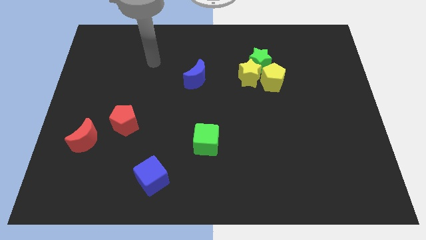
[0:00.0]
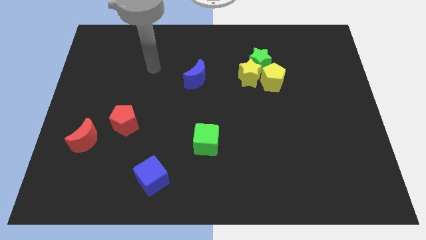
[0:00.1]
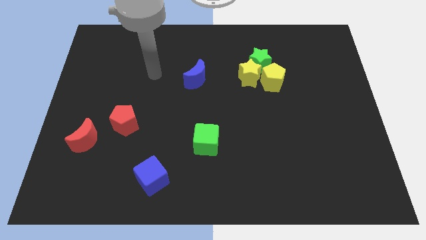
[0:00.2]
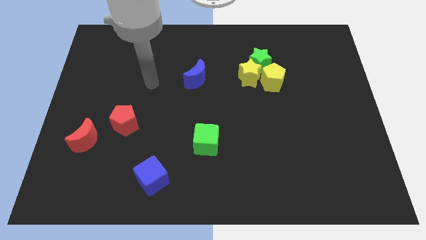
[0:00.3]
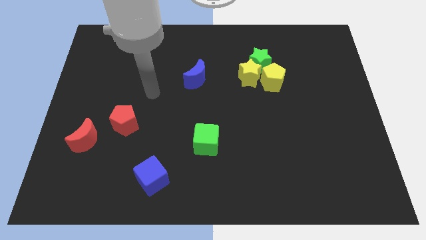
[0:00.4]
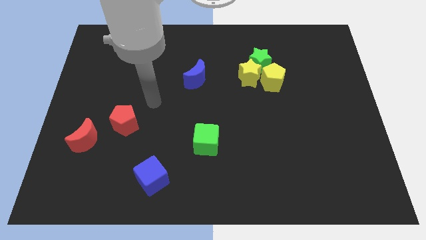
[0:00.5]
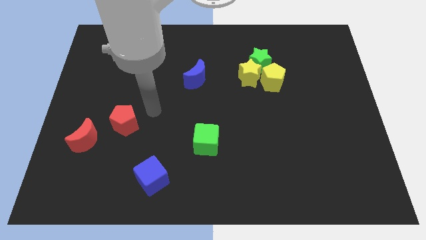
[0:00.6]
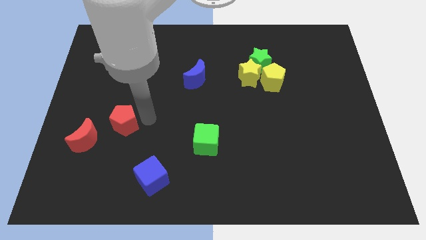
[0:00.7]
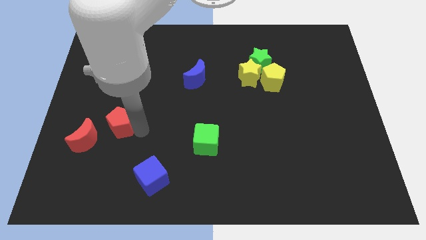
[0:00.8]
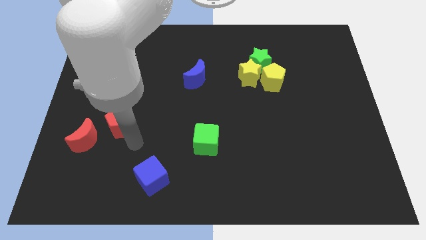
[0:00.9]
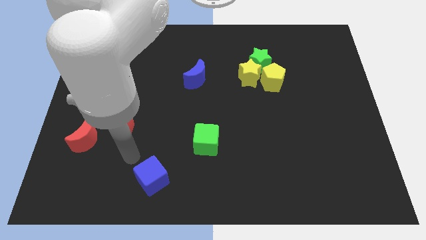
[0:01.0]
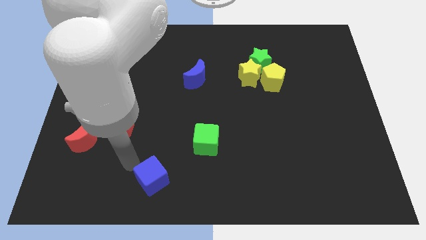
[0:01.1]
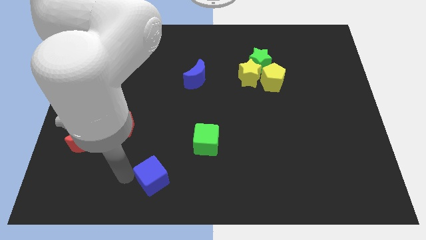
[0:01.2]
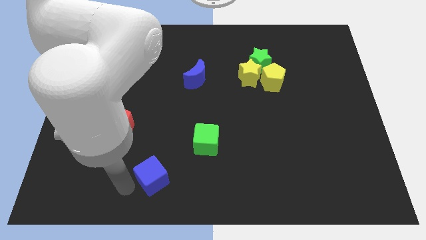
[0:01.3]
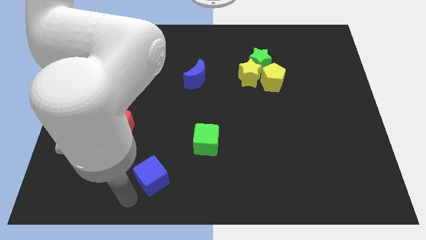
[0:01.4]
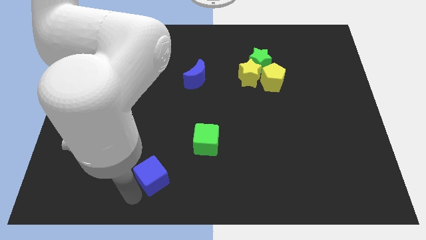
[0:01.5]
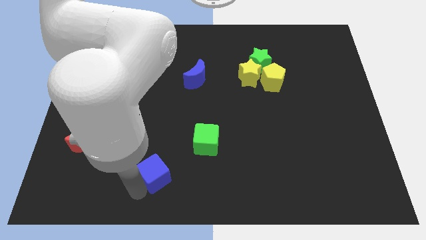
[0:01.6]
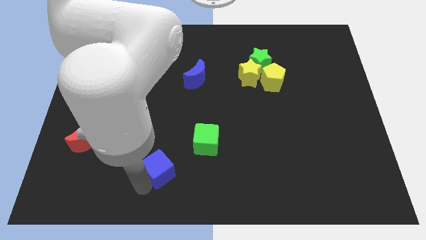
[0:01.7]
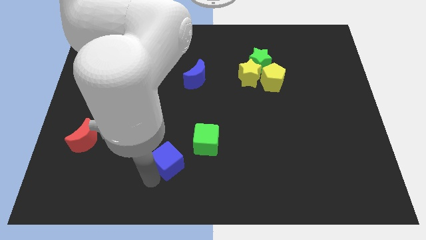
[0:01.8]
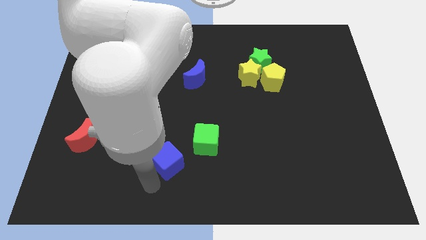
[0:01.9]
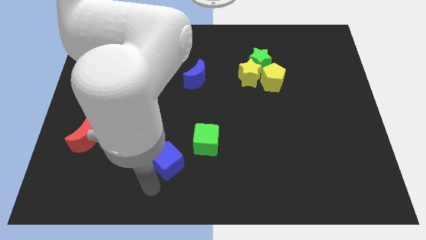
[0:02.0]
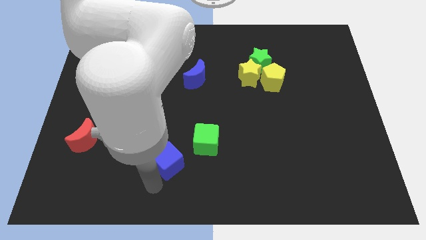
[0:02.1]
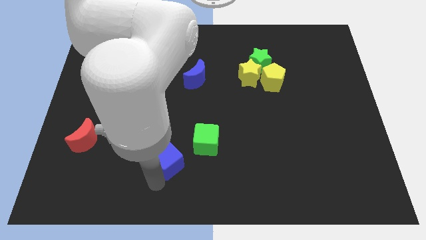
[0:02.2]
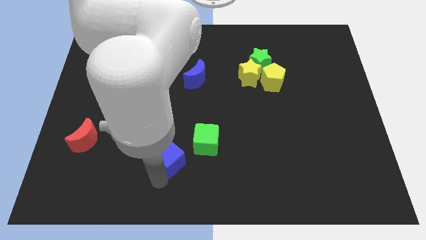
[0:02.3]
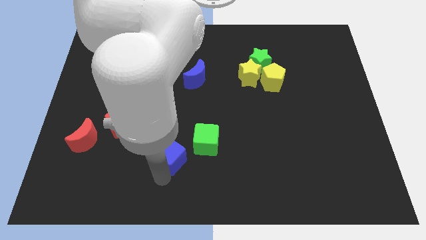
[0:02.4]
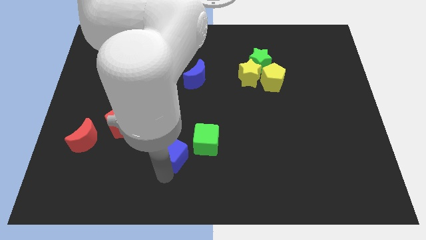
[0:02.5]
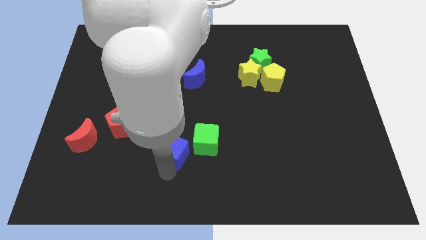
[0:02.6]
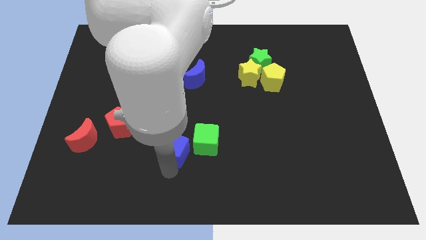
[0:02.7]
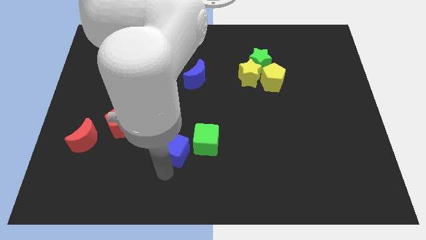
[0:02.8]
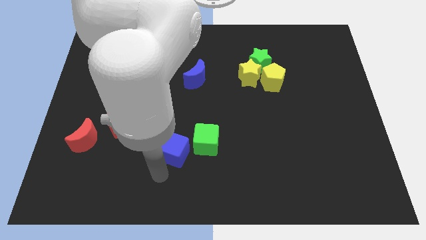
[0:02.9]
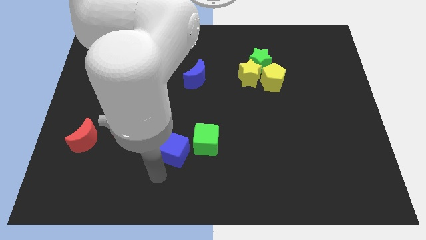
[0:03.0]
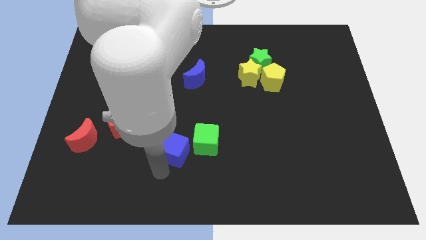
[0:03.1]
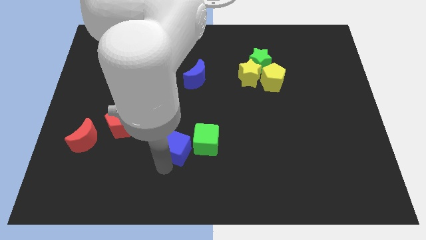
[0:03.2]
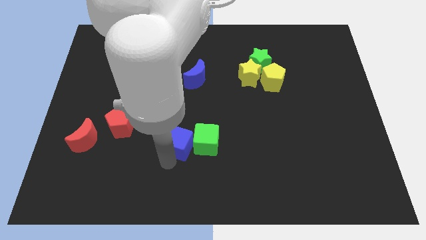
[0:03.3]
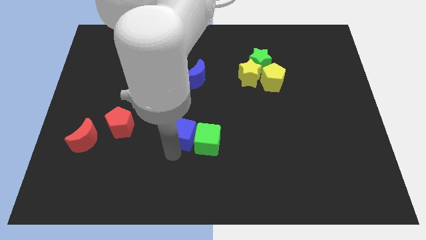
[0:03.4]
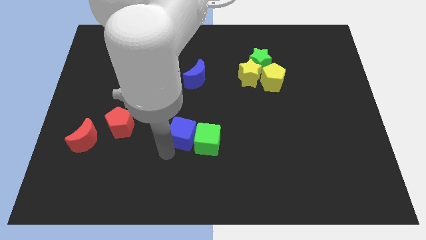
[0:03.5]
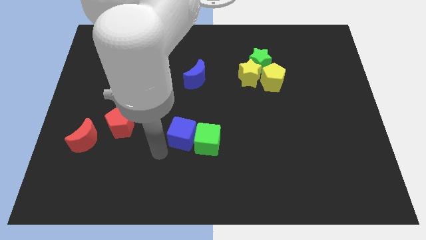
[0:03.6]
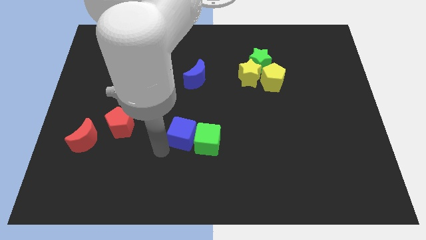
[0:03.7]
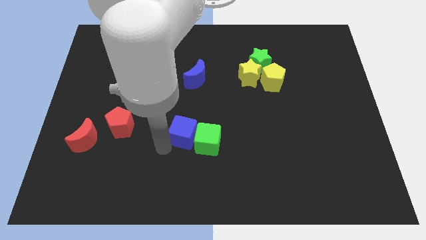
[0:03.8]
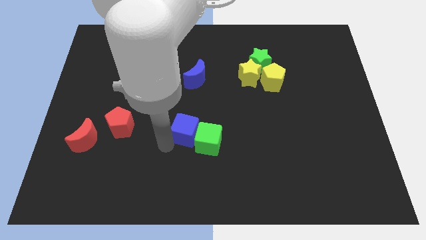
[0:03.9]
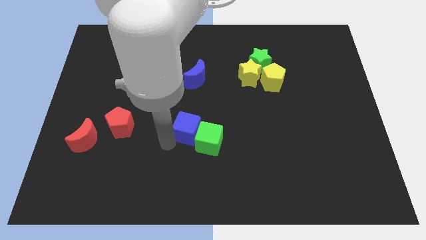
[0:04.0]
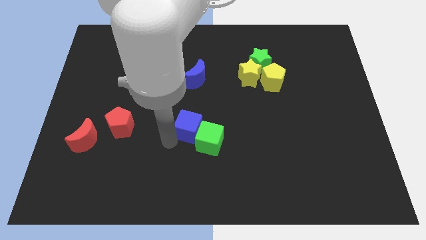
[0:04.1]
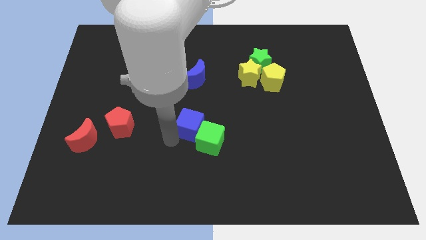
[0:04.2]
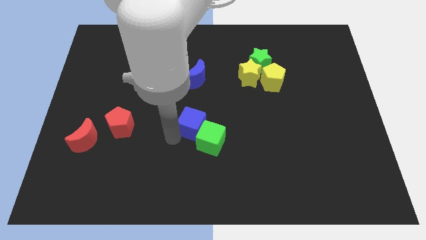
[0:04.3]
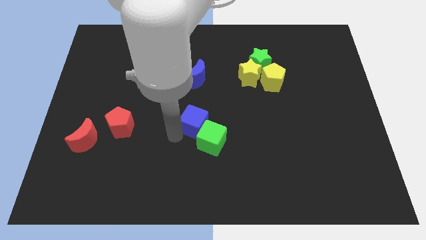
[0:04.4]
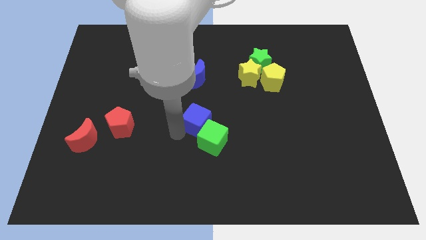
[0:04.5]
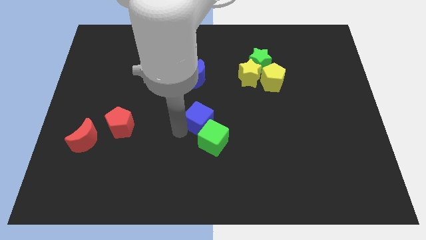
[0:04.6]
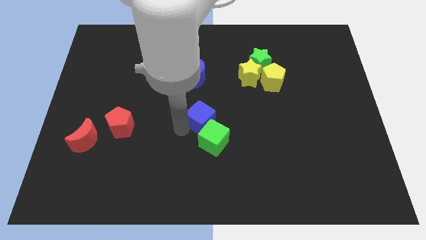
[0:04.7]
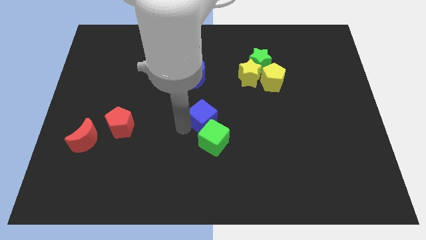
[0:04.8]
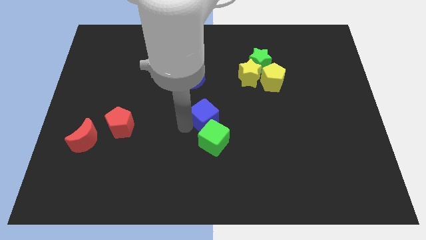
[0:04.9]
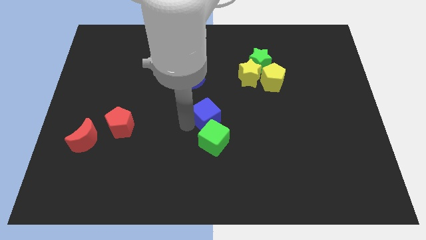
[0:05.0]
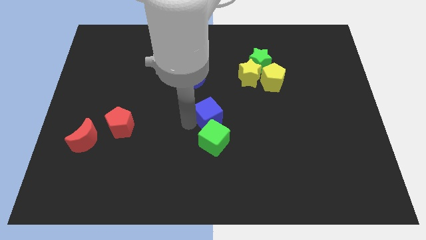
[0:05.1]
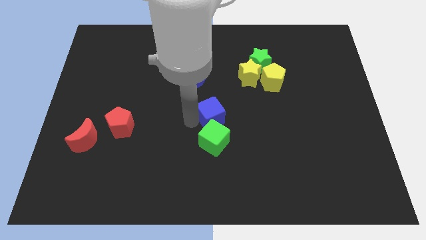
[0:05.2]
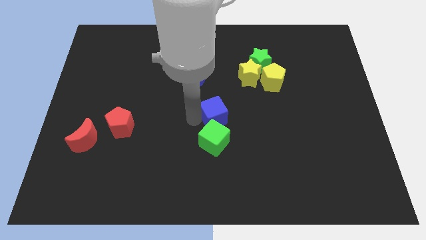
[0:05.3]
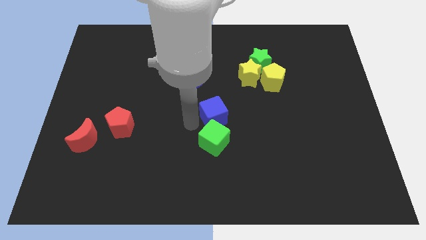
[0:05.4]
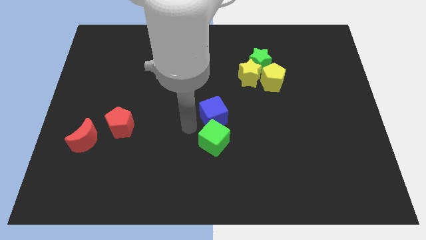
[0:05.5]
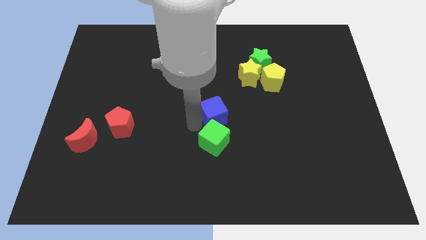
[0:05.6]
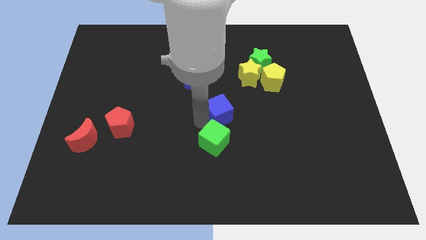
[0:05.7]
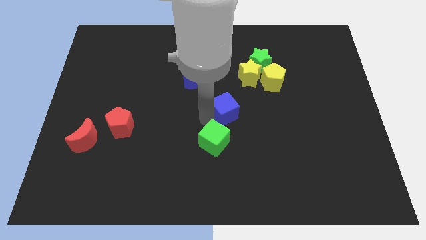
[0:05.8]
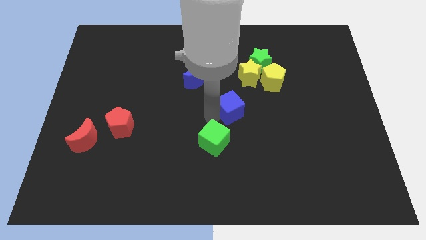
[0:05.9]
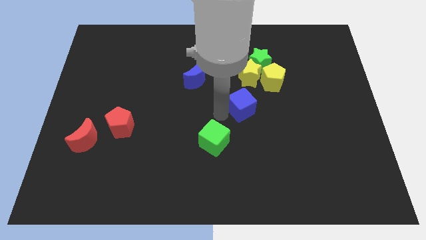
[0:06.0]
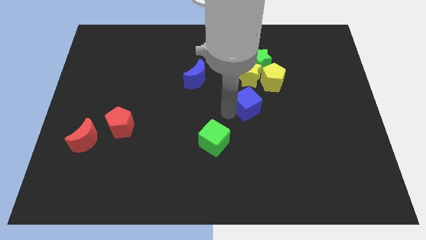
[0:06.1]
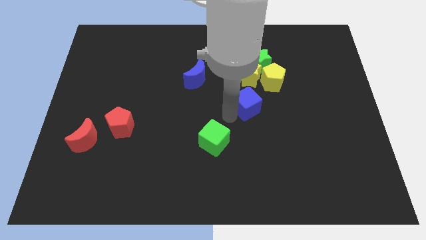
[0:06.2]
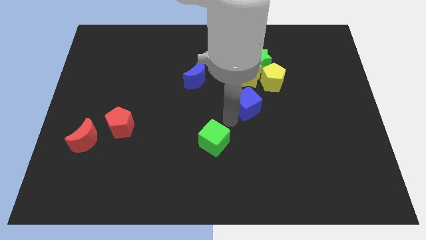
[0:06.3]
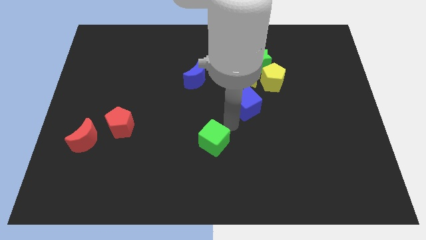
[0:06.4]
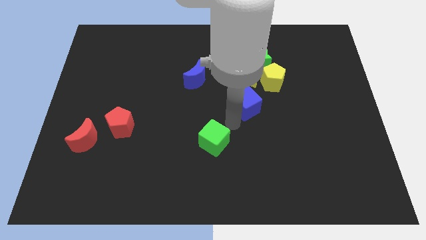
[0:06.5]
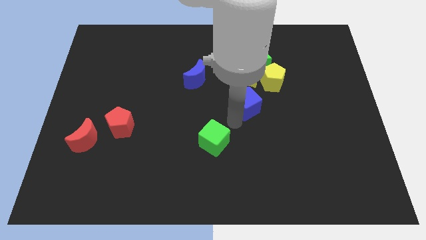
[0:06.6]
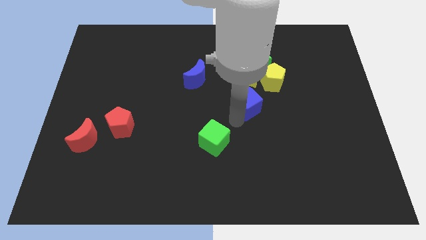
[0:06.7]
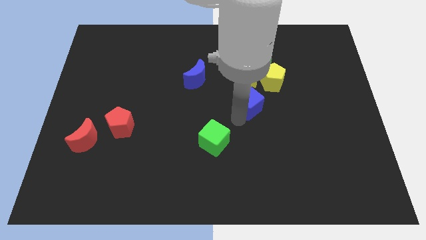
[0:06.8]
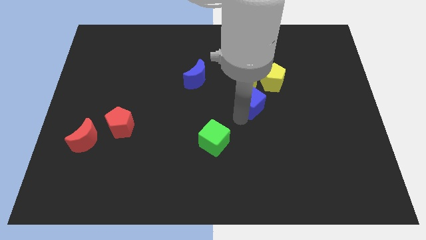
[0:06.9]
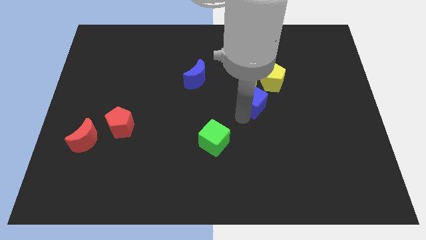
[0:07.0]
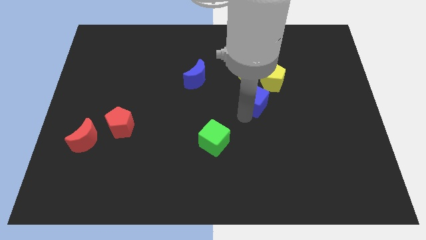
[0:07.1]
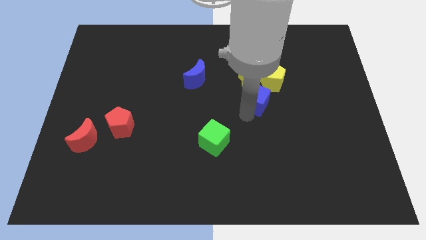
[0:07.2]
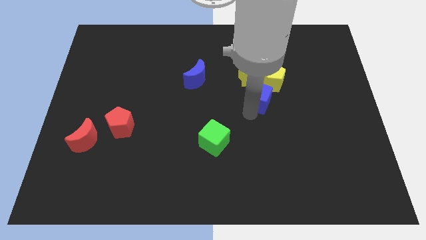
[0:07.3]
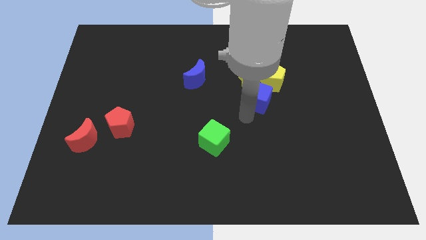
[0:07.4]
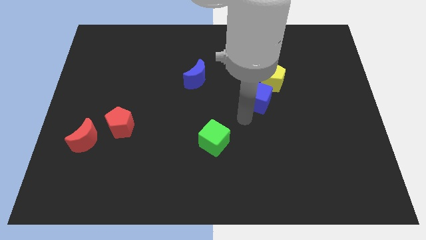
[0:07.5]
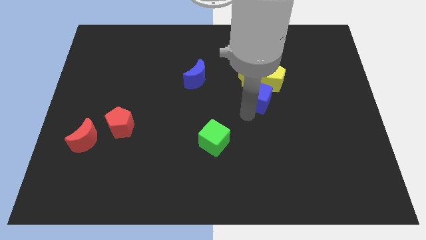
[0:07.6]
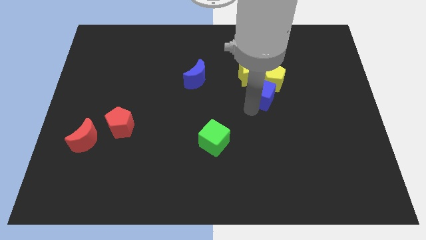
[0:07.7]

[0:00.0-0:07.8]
push the blue cube close to the yellow pentagon
